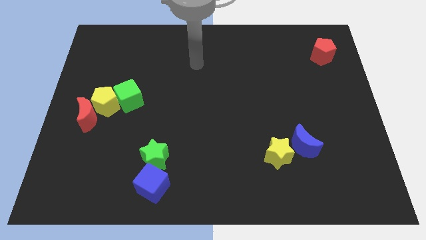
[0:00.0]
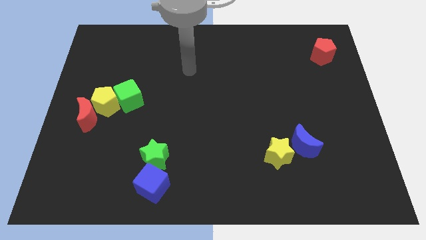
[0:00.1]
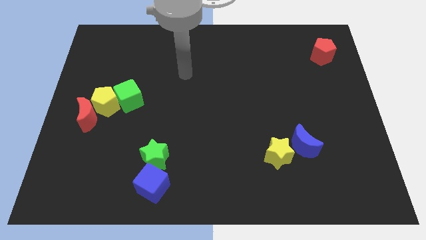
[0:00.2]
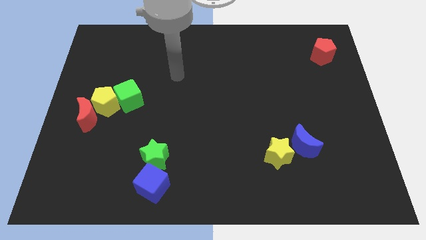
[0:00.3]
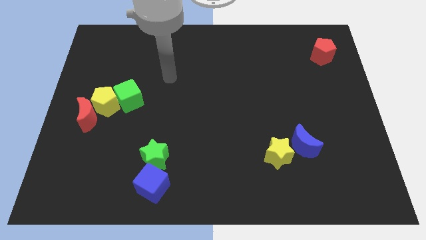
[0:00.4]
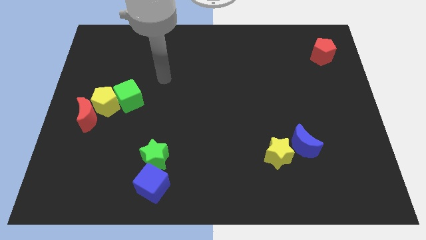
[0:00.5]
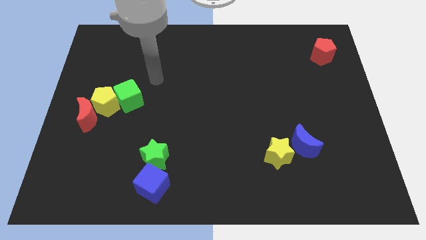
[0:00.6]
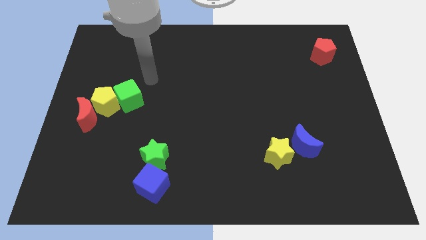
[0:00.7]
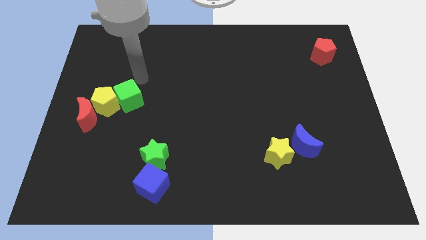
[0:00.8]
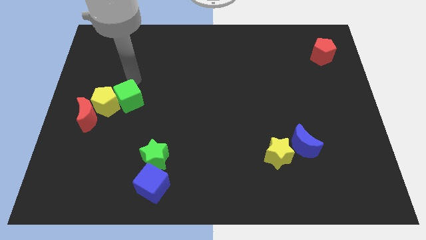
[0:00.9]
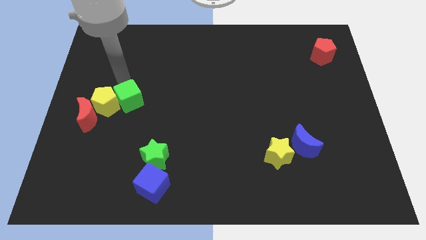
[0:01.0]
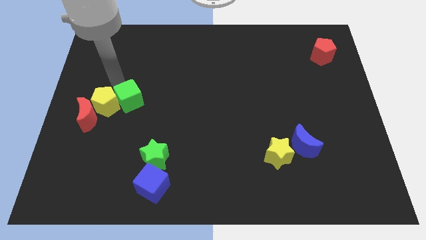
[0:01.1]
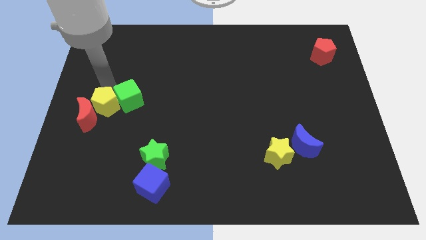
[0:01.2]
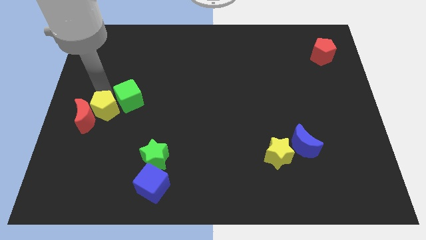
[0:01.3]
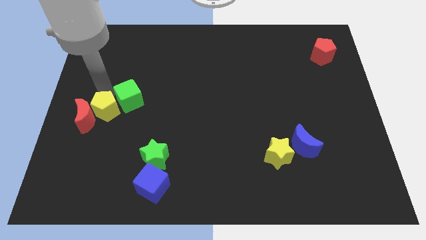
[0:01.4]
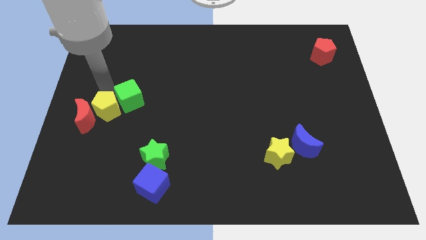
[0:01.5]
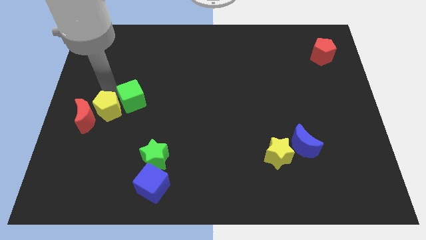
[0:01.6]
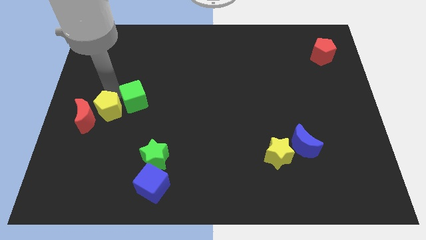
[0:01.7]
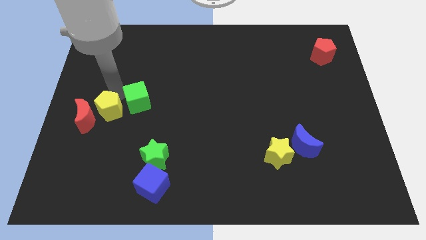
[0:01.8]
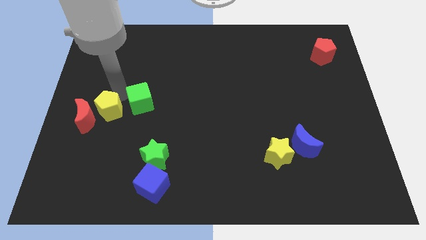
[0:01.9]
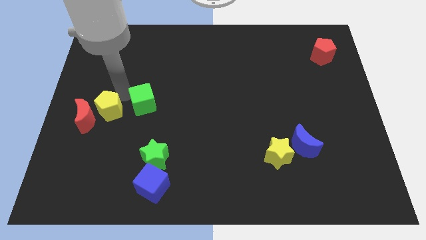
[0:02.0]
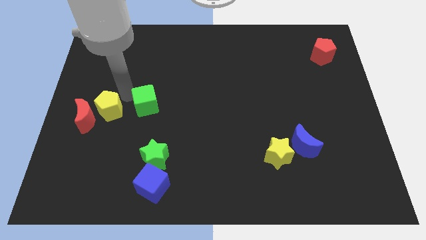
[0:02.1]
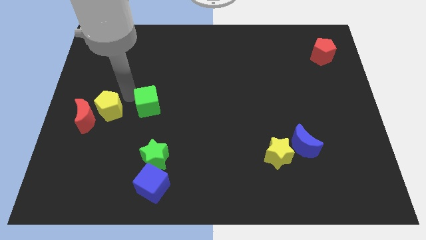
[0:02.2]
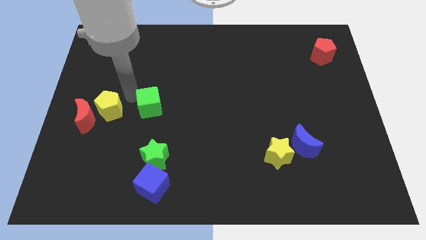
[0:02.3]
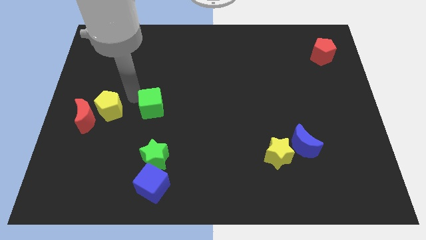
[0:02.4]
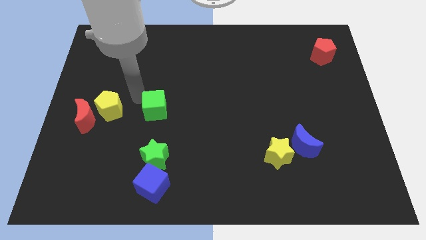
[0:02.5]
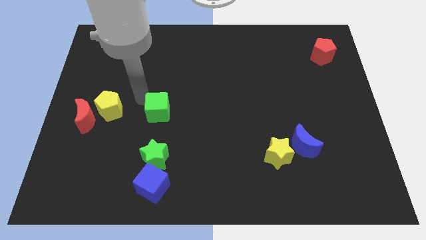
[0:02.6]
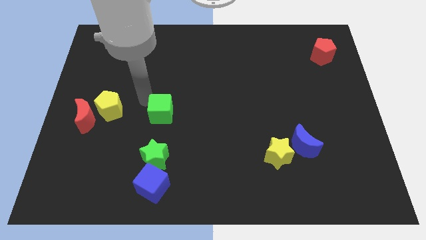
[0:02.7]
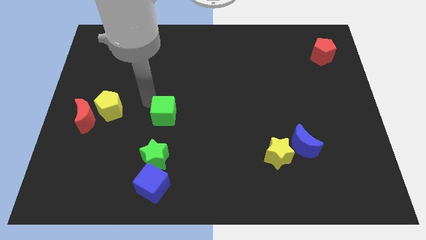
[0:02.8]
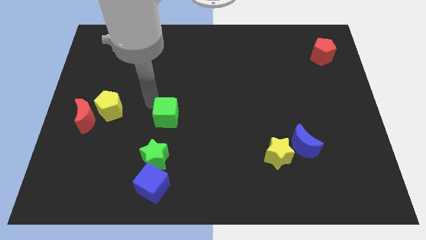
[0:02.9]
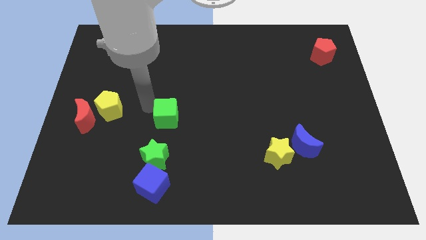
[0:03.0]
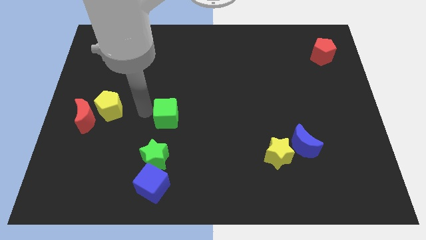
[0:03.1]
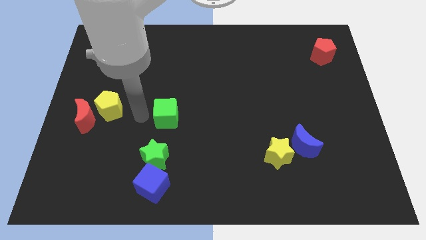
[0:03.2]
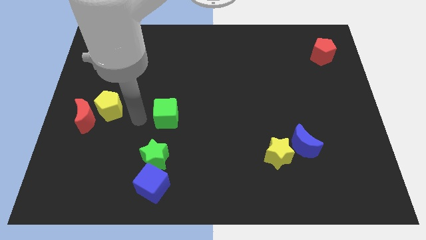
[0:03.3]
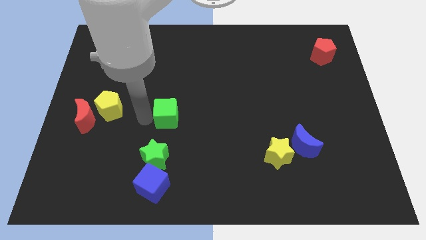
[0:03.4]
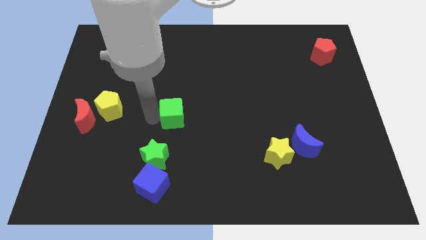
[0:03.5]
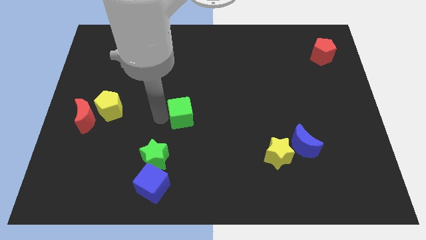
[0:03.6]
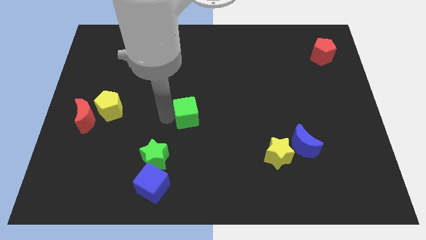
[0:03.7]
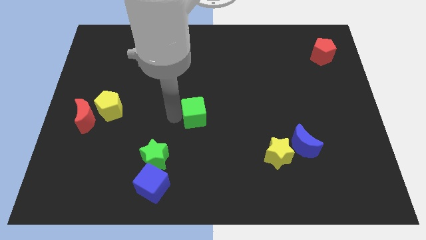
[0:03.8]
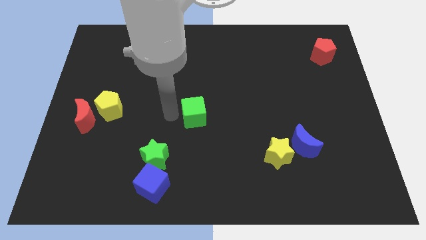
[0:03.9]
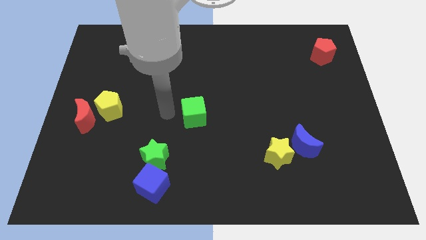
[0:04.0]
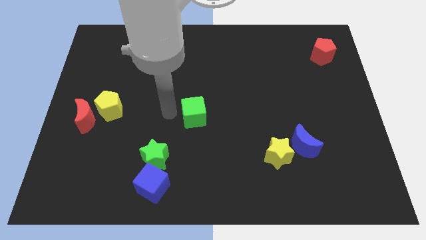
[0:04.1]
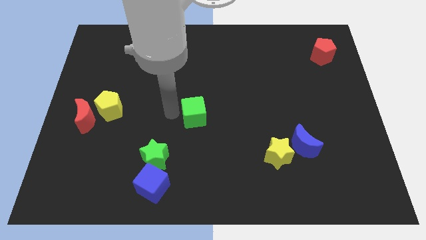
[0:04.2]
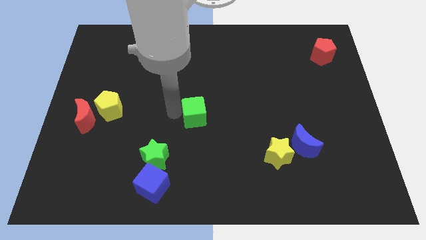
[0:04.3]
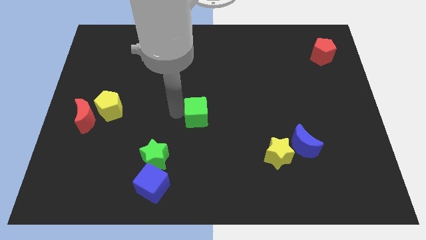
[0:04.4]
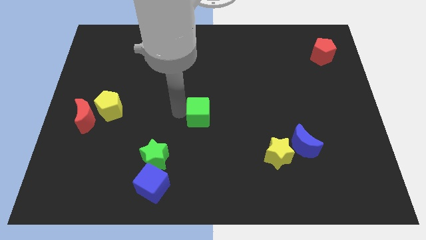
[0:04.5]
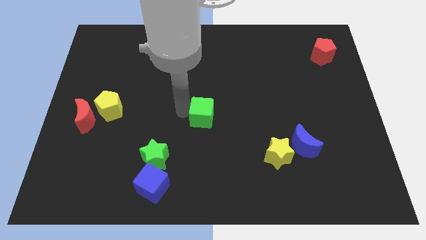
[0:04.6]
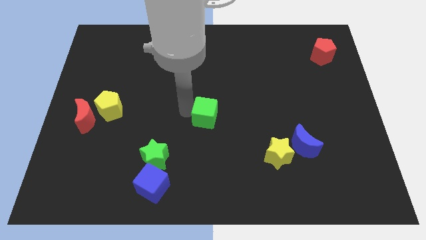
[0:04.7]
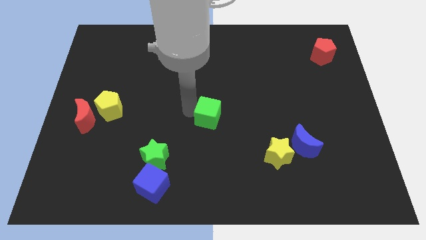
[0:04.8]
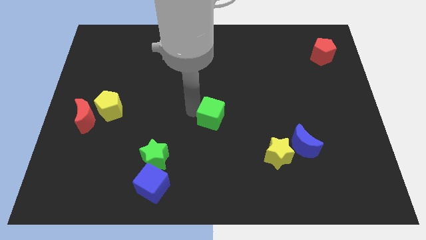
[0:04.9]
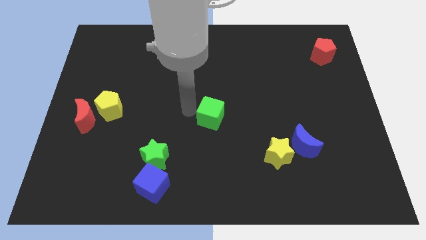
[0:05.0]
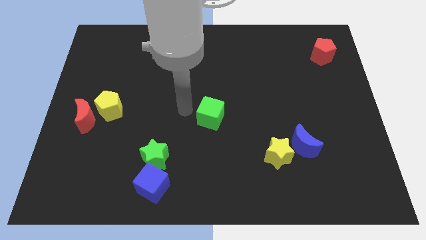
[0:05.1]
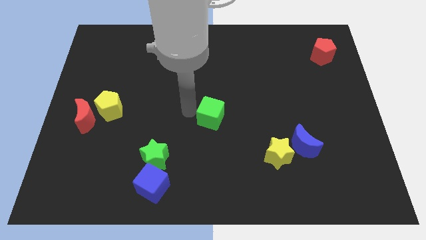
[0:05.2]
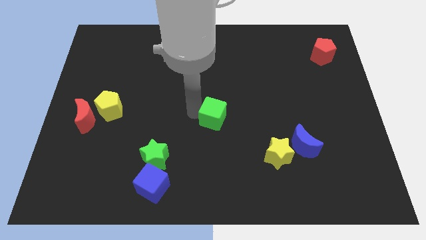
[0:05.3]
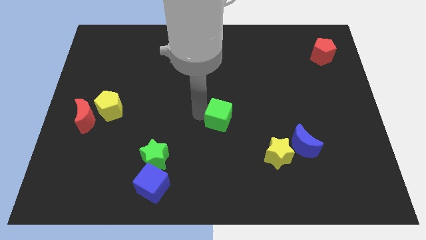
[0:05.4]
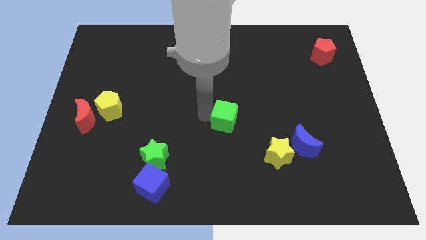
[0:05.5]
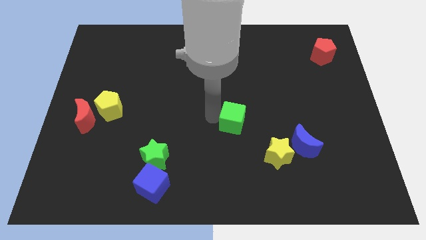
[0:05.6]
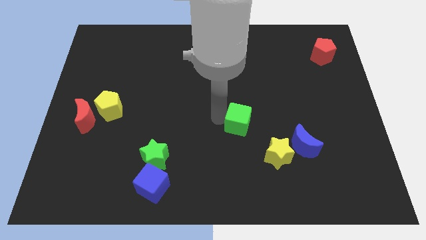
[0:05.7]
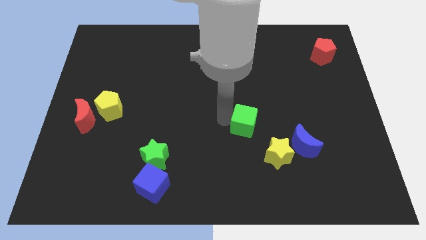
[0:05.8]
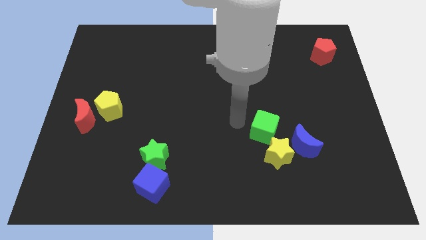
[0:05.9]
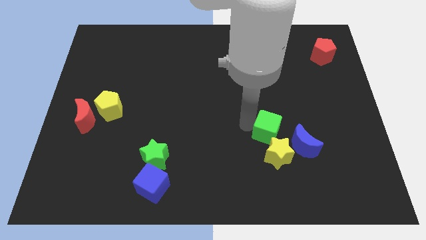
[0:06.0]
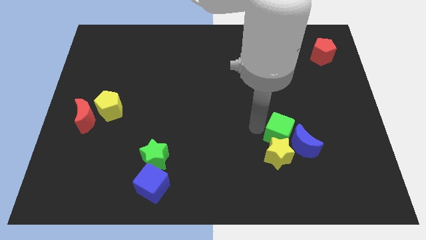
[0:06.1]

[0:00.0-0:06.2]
move the green cube close to the blue moon

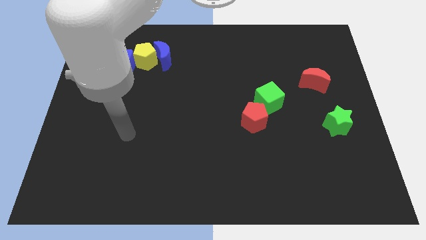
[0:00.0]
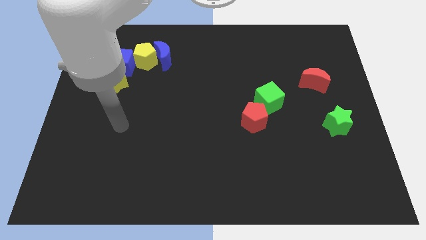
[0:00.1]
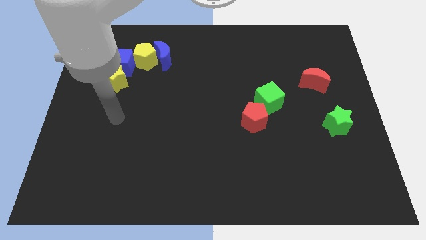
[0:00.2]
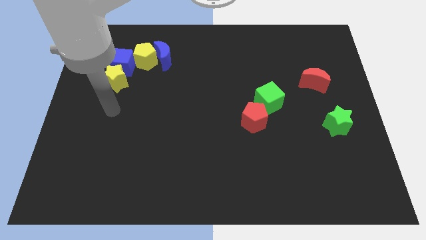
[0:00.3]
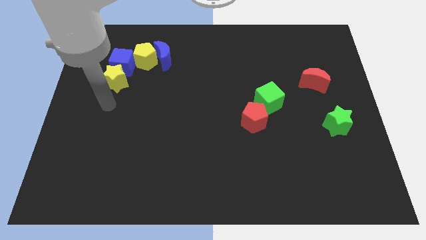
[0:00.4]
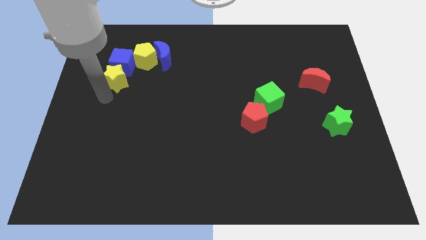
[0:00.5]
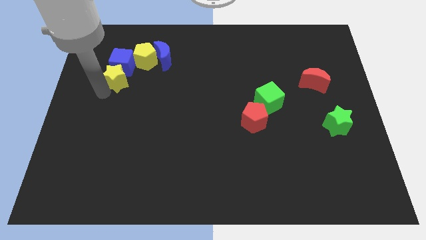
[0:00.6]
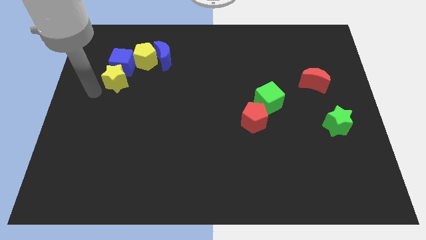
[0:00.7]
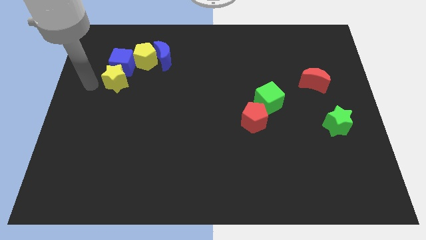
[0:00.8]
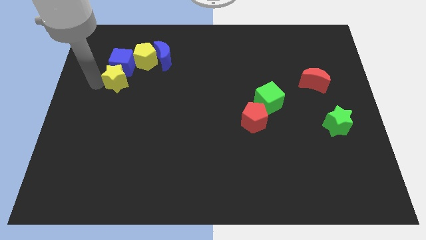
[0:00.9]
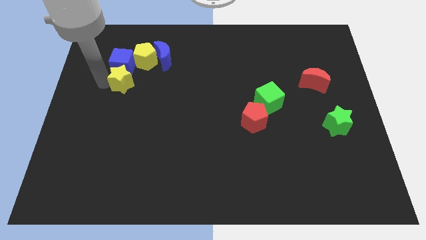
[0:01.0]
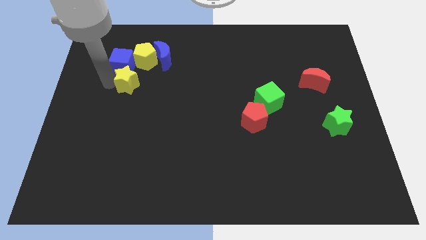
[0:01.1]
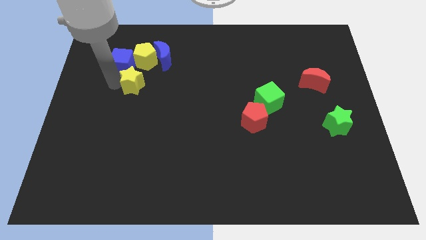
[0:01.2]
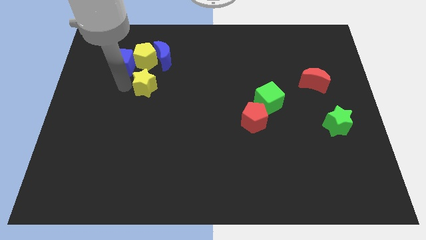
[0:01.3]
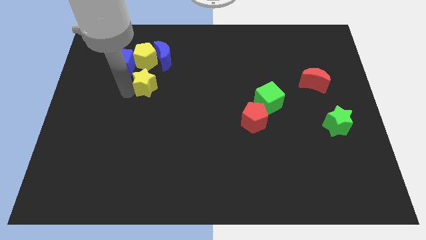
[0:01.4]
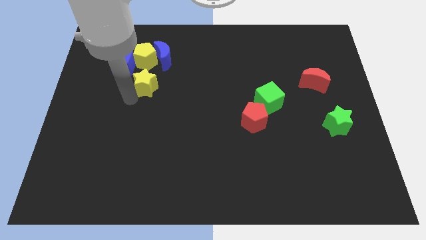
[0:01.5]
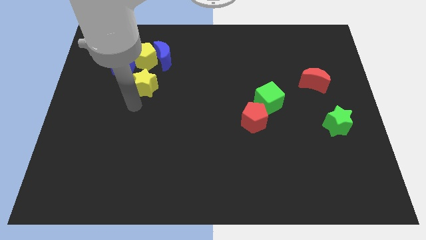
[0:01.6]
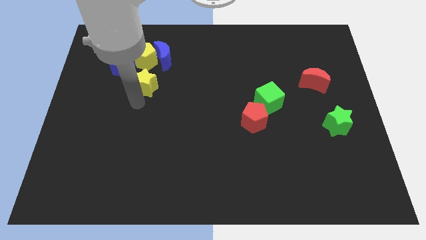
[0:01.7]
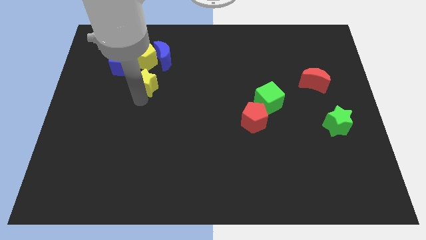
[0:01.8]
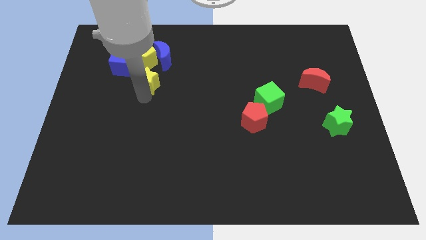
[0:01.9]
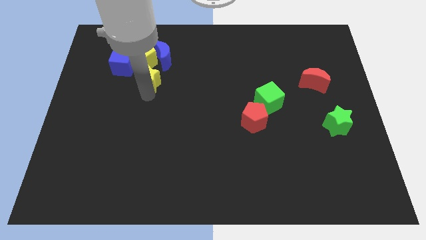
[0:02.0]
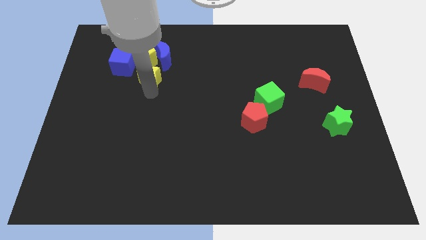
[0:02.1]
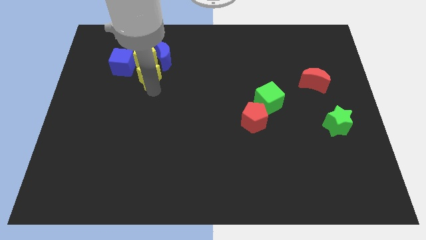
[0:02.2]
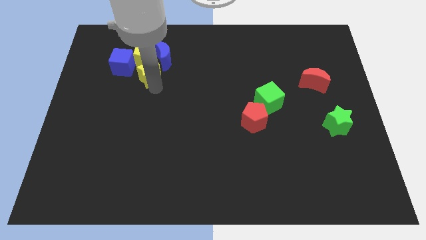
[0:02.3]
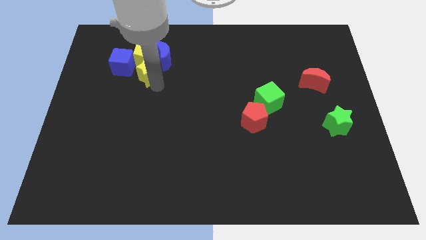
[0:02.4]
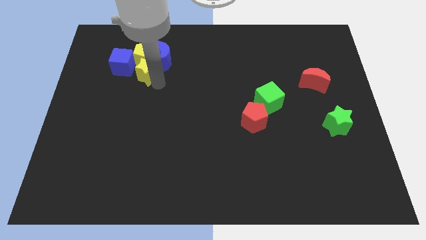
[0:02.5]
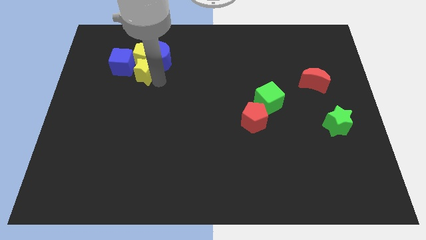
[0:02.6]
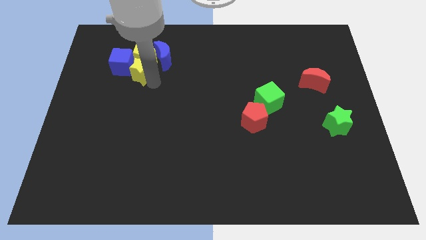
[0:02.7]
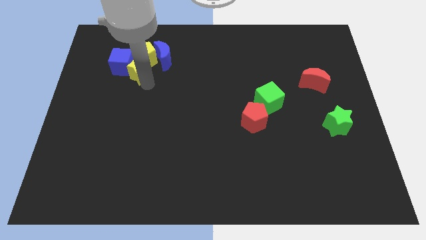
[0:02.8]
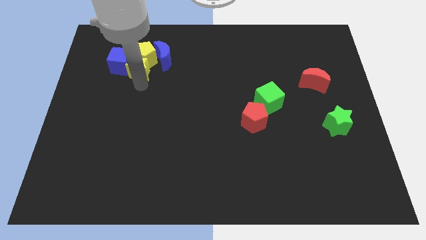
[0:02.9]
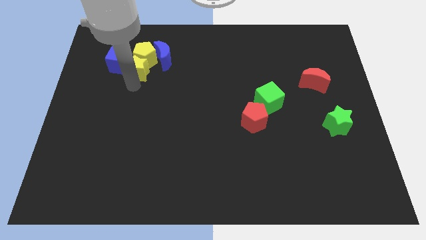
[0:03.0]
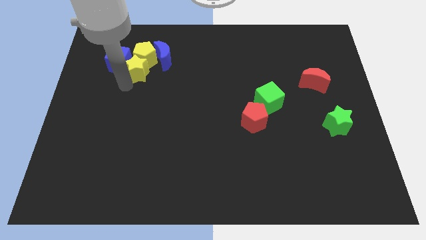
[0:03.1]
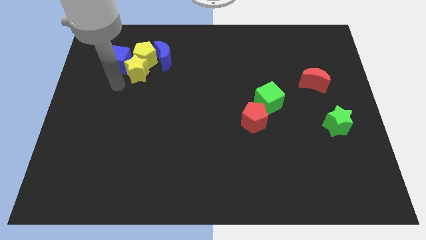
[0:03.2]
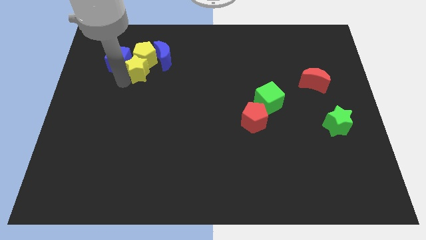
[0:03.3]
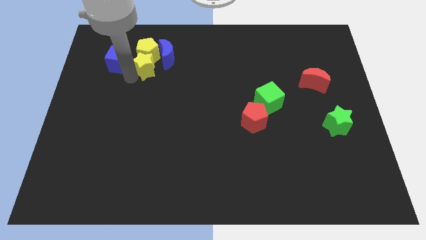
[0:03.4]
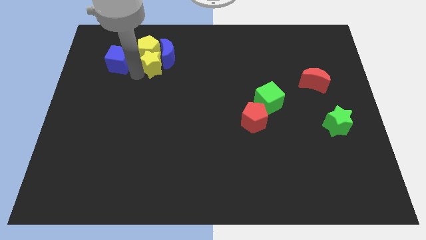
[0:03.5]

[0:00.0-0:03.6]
put the yellow star next to the blue moon
